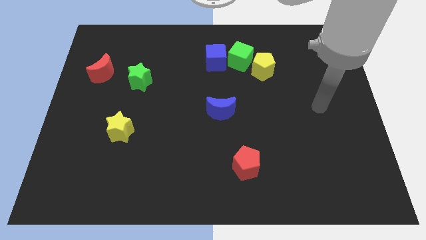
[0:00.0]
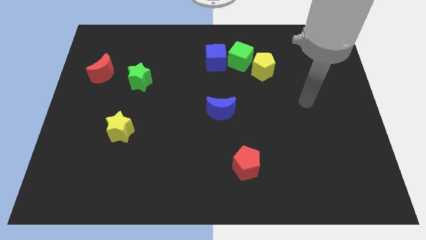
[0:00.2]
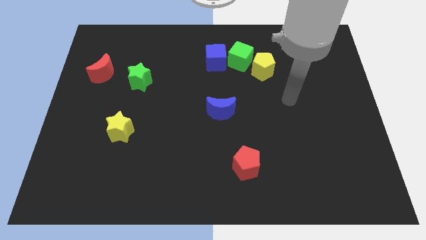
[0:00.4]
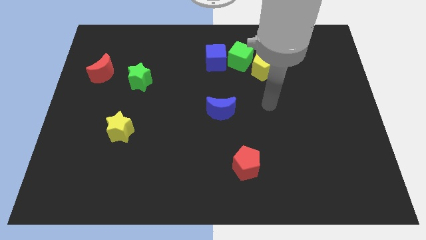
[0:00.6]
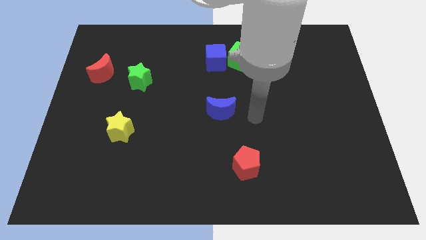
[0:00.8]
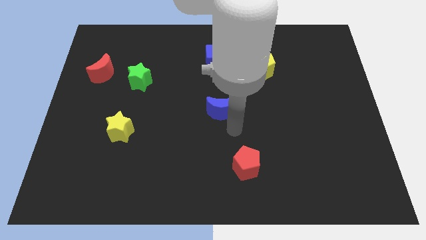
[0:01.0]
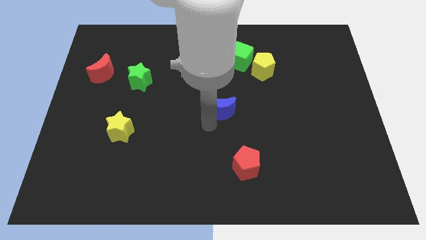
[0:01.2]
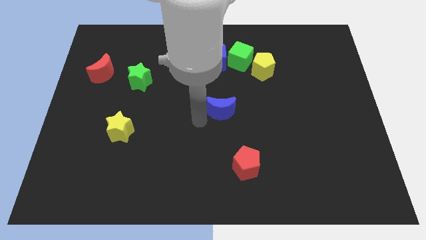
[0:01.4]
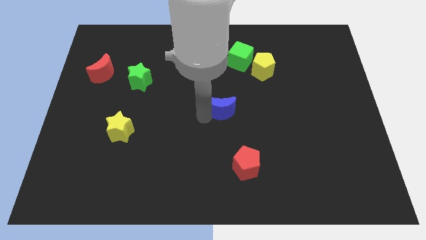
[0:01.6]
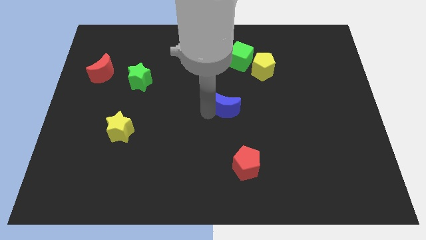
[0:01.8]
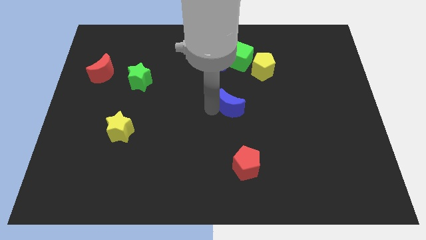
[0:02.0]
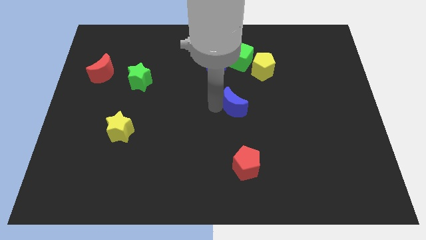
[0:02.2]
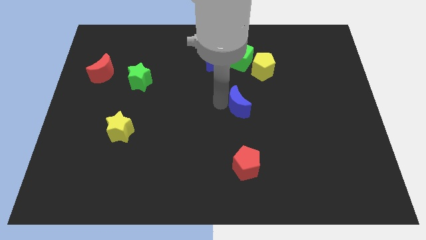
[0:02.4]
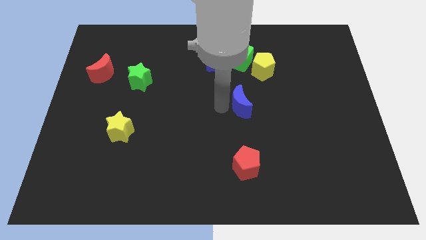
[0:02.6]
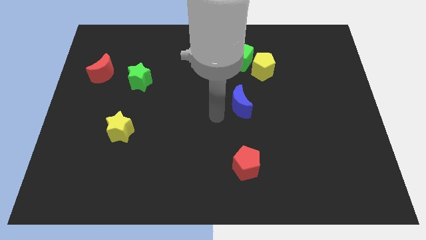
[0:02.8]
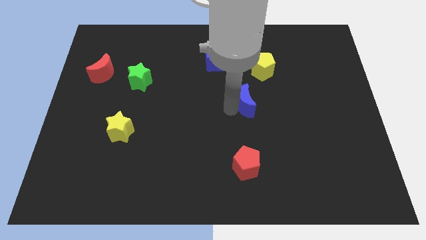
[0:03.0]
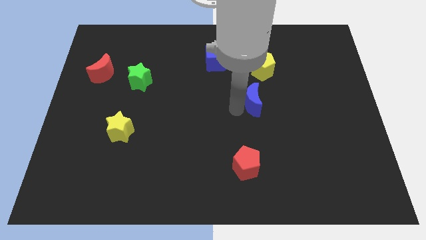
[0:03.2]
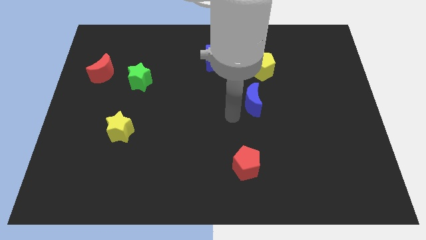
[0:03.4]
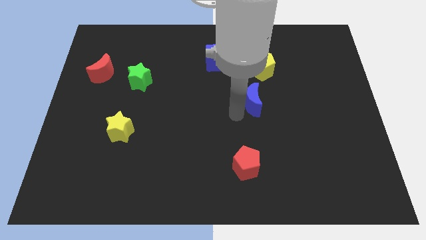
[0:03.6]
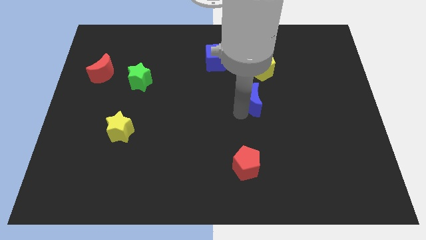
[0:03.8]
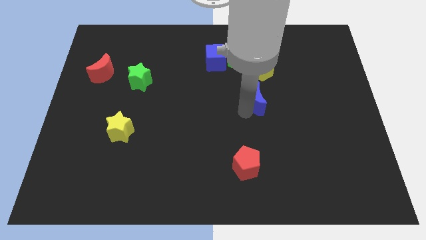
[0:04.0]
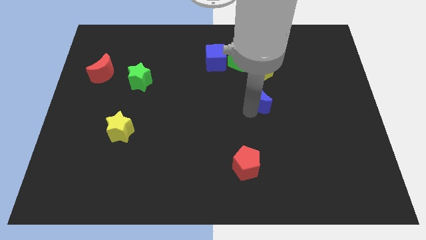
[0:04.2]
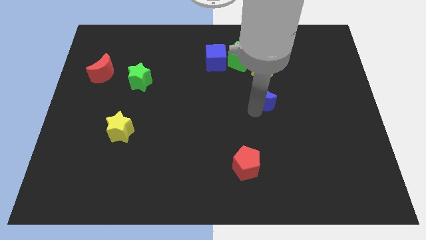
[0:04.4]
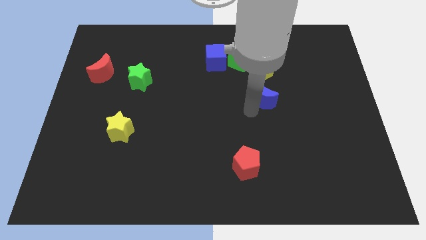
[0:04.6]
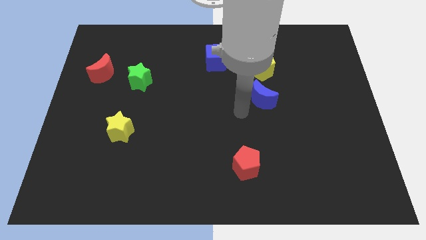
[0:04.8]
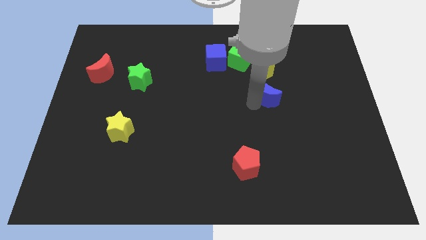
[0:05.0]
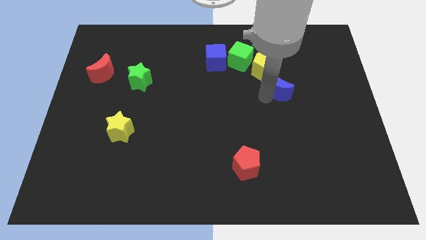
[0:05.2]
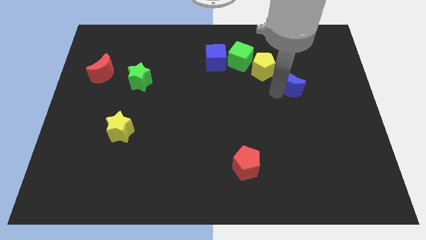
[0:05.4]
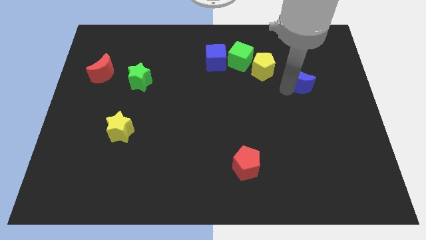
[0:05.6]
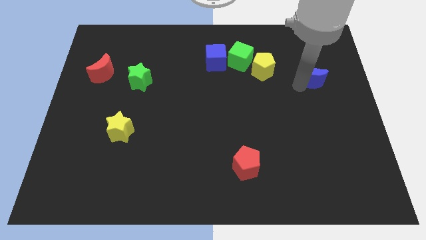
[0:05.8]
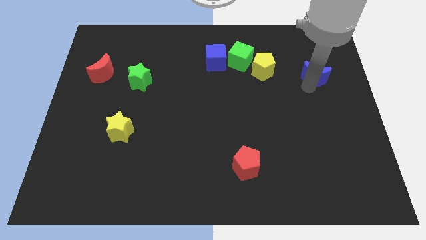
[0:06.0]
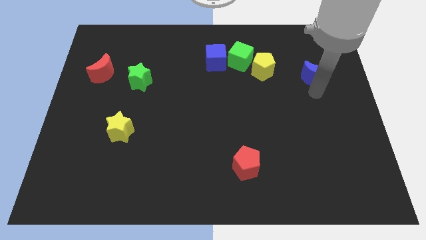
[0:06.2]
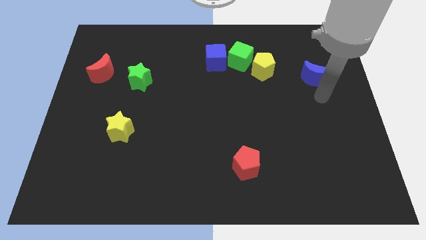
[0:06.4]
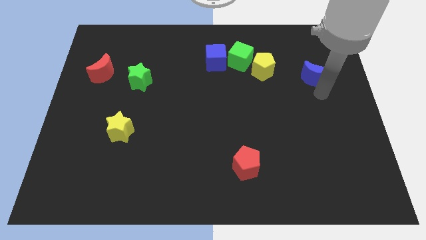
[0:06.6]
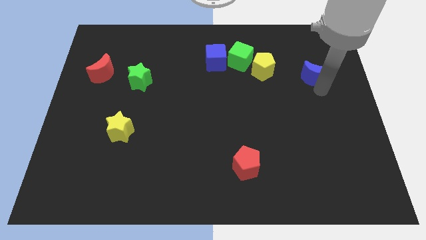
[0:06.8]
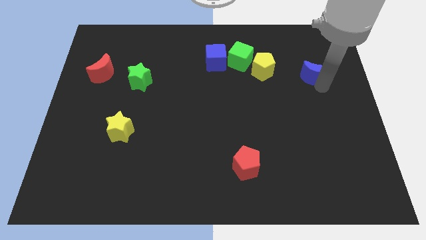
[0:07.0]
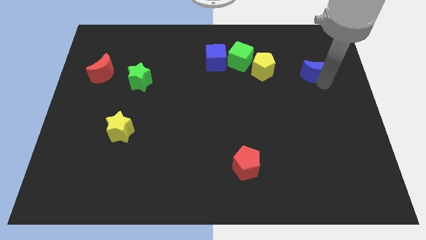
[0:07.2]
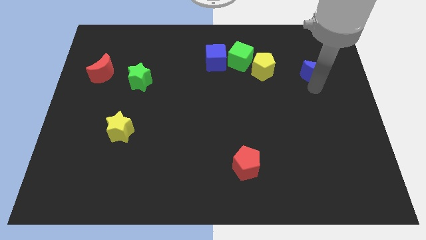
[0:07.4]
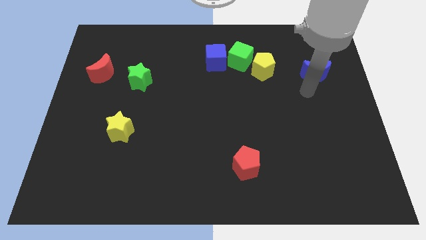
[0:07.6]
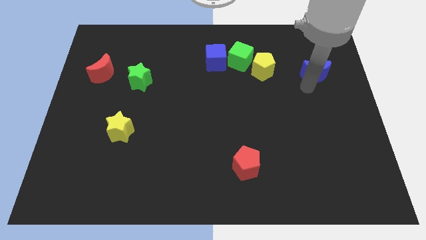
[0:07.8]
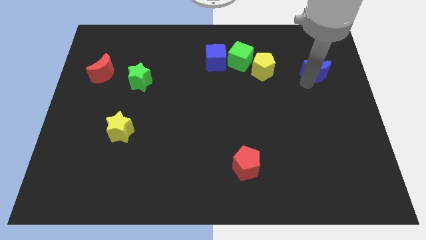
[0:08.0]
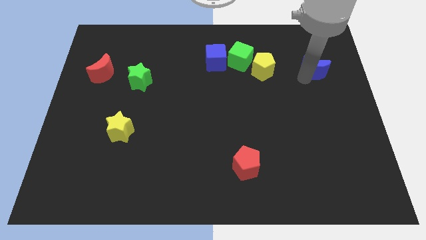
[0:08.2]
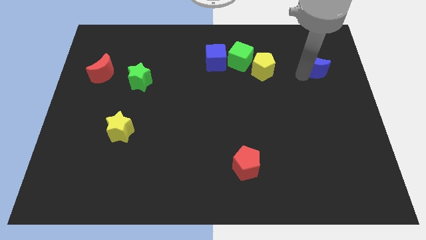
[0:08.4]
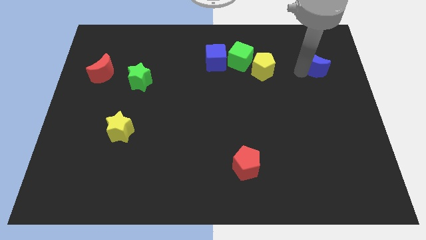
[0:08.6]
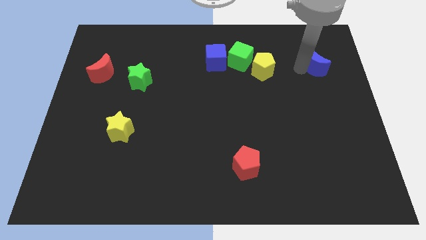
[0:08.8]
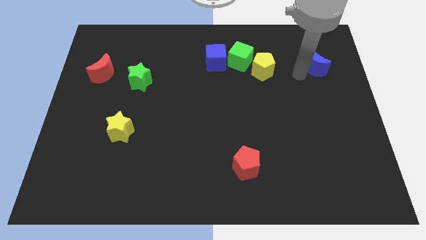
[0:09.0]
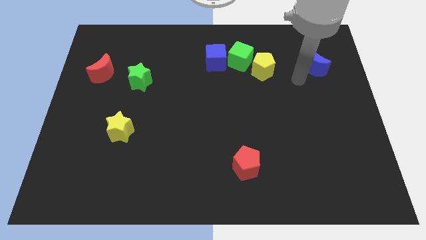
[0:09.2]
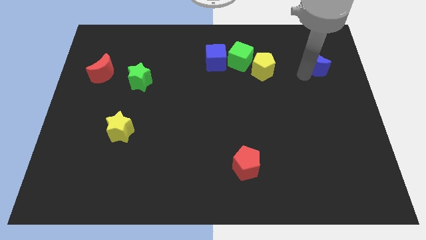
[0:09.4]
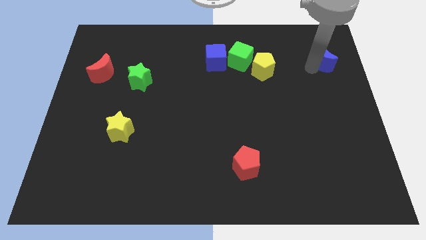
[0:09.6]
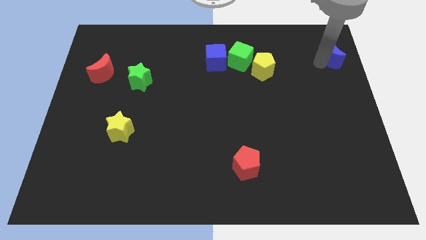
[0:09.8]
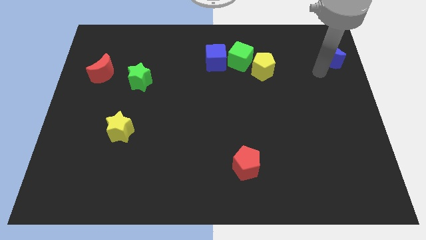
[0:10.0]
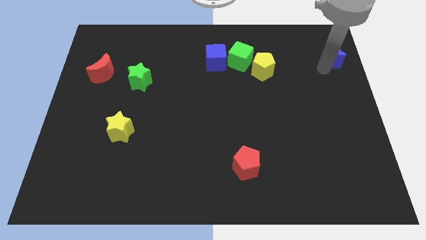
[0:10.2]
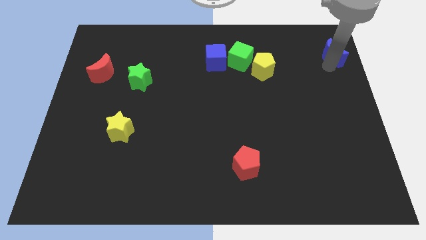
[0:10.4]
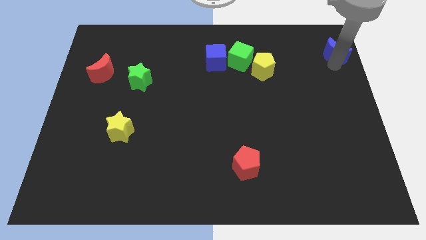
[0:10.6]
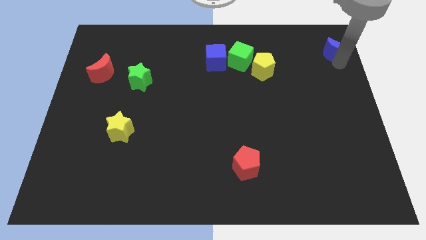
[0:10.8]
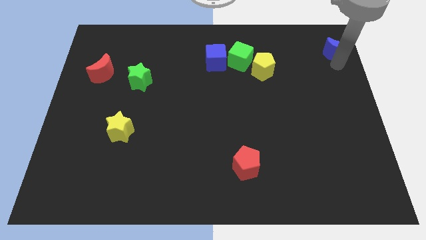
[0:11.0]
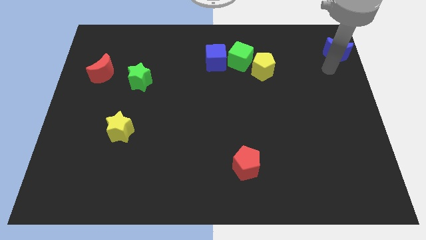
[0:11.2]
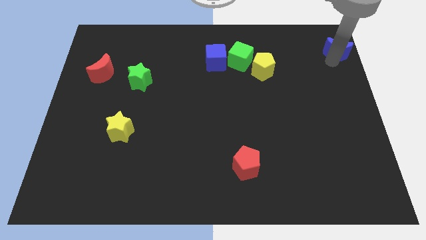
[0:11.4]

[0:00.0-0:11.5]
slide the blue moon to the upper right corner

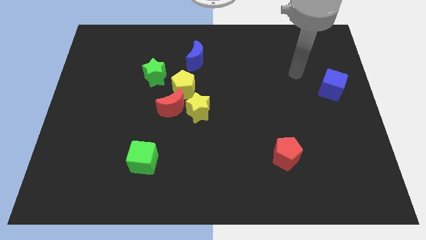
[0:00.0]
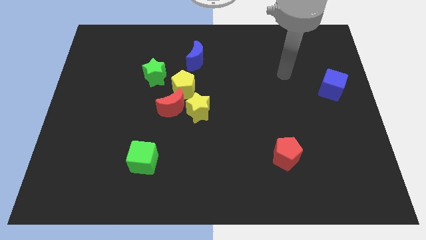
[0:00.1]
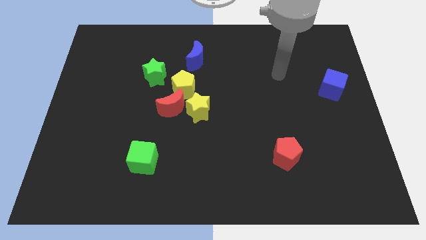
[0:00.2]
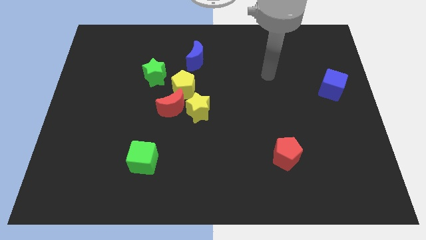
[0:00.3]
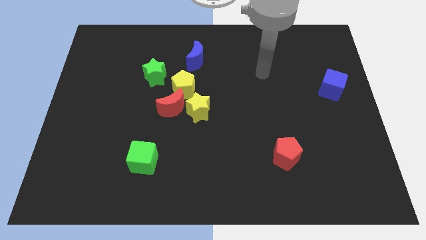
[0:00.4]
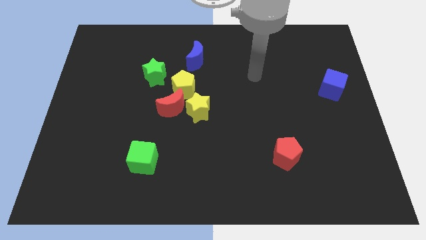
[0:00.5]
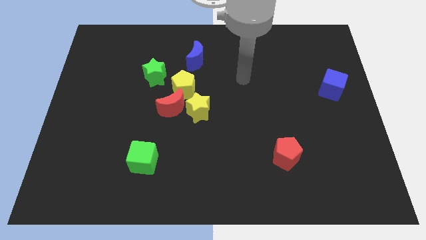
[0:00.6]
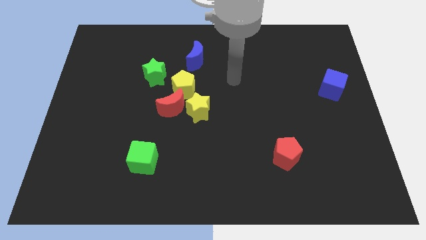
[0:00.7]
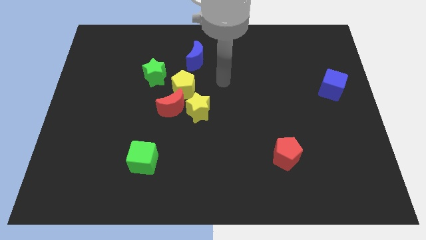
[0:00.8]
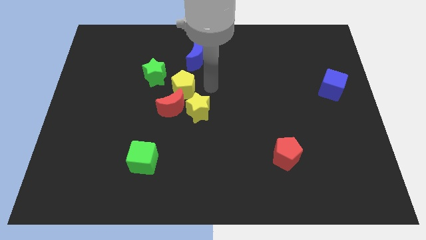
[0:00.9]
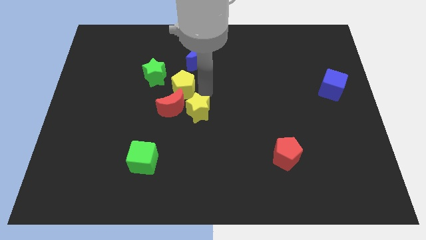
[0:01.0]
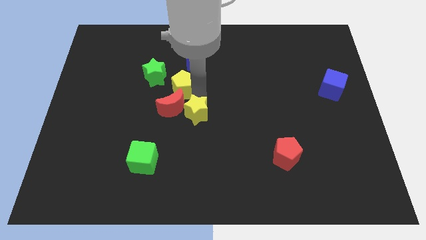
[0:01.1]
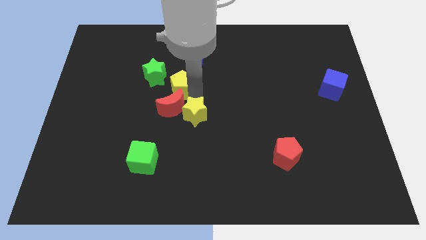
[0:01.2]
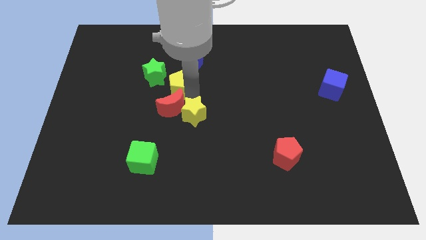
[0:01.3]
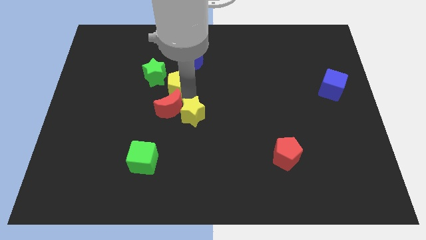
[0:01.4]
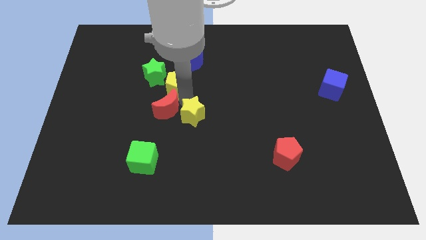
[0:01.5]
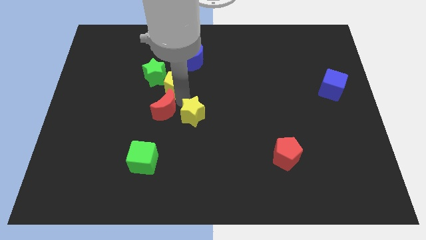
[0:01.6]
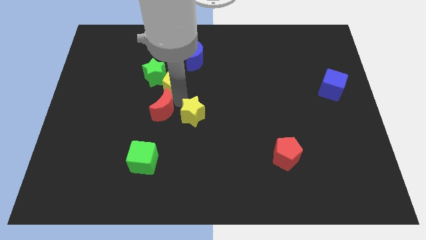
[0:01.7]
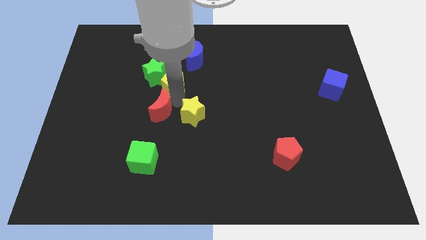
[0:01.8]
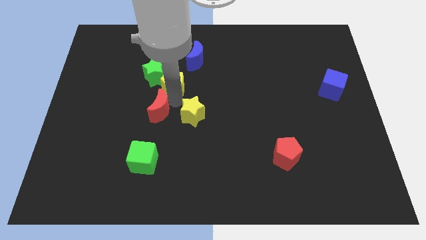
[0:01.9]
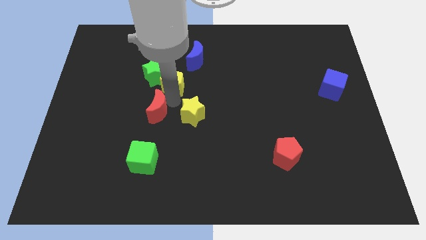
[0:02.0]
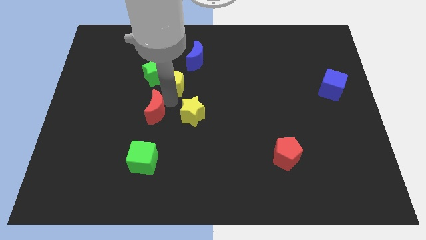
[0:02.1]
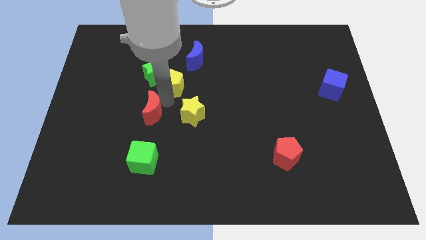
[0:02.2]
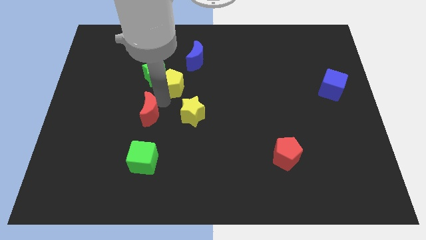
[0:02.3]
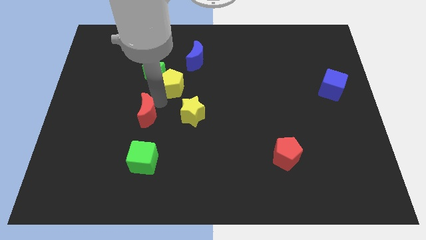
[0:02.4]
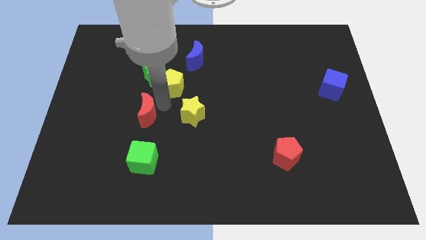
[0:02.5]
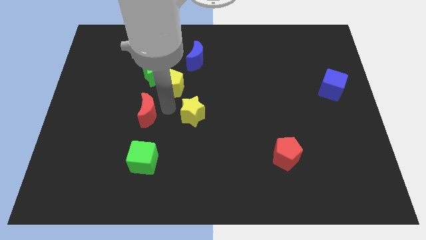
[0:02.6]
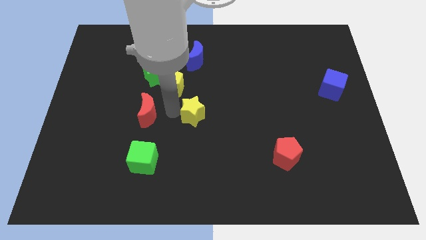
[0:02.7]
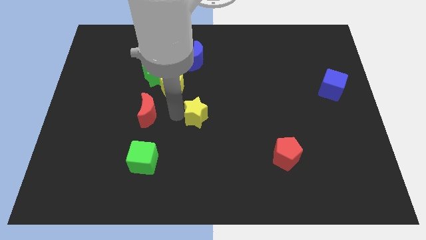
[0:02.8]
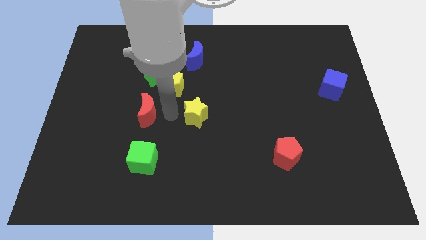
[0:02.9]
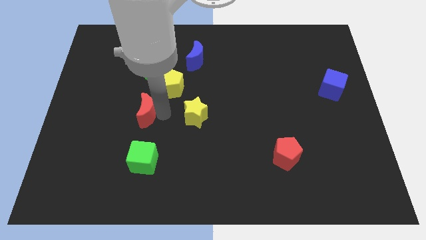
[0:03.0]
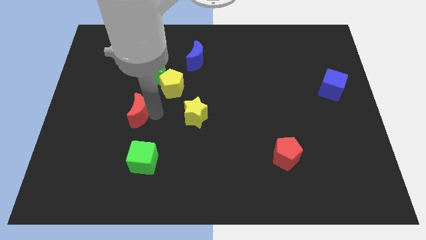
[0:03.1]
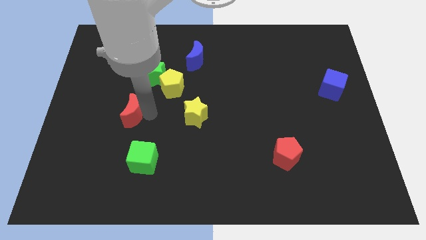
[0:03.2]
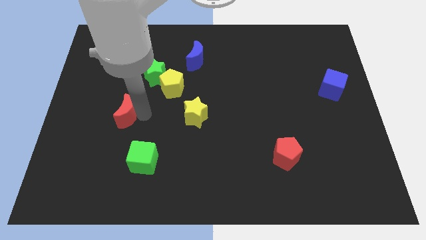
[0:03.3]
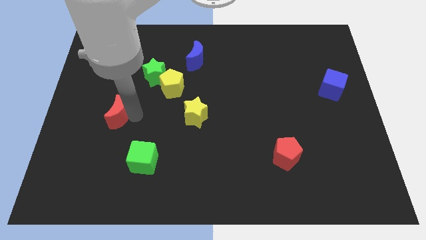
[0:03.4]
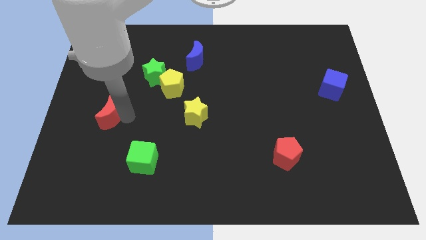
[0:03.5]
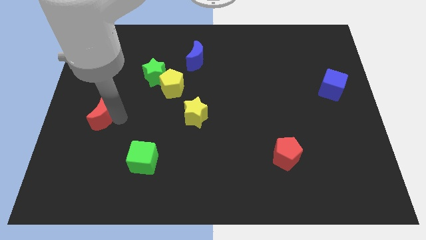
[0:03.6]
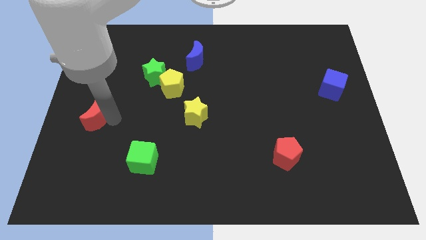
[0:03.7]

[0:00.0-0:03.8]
push the red moon to the left side
